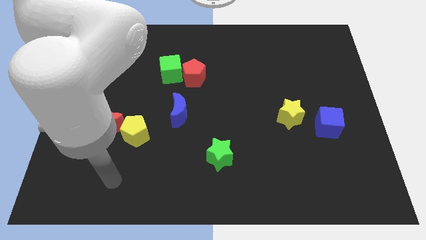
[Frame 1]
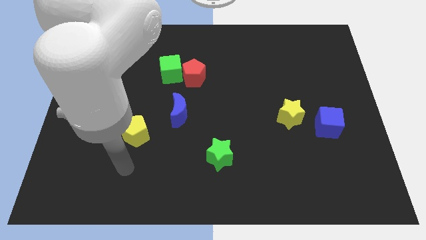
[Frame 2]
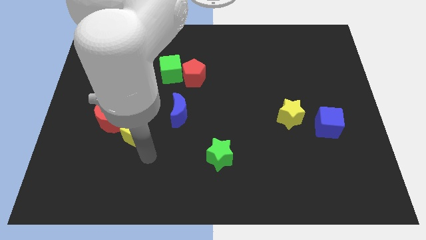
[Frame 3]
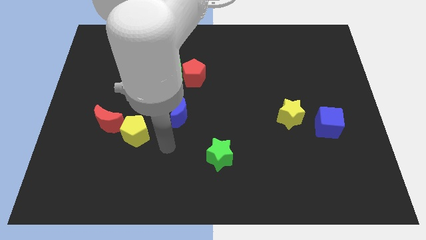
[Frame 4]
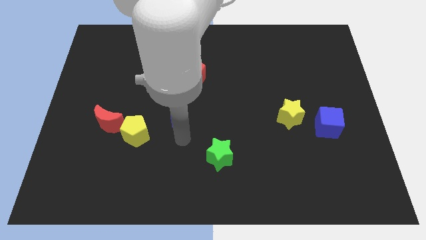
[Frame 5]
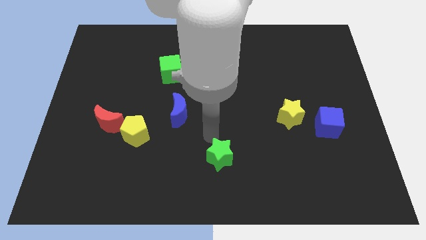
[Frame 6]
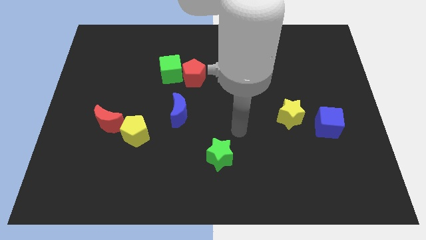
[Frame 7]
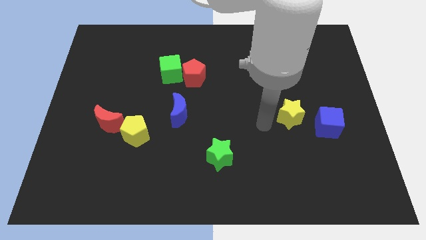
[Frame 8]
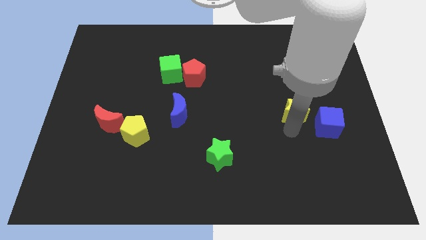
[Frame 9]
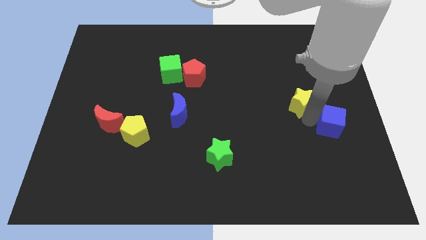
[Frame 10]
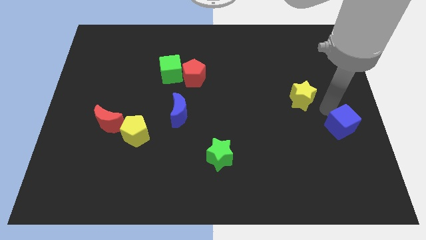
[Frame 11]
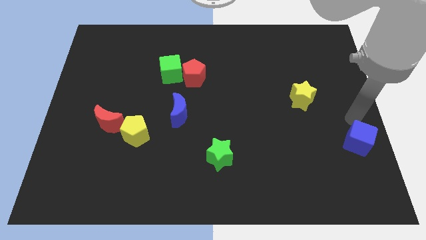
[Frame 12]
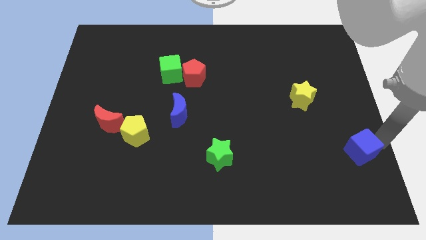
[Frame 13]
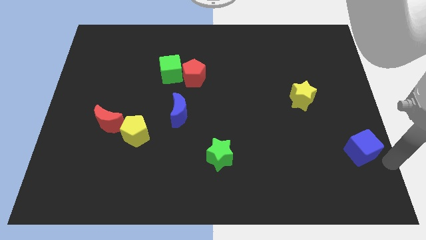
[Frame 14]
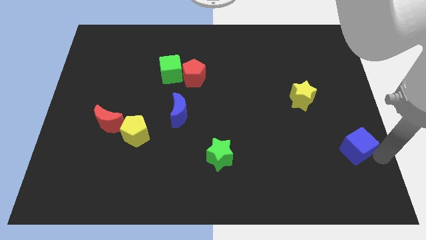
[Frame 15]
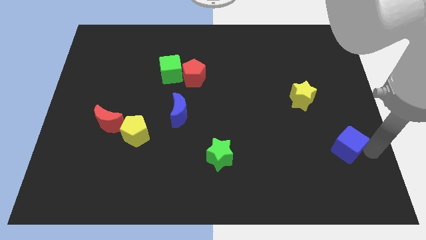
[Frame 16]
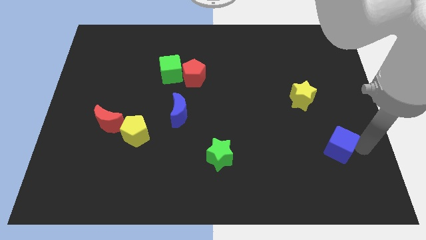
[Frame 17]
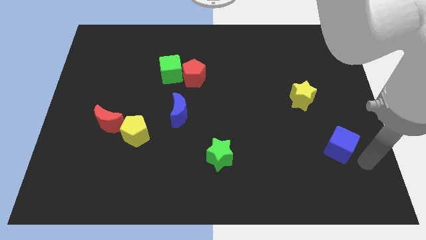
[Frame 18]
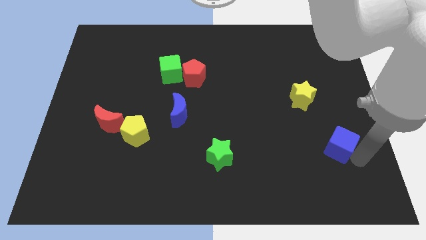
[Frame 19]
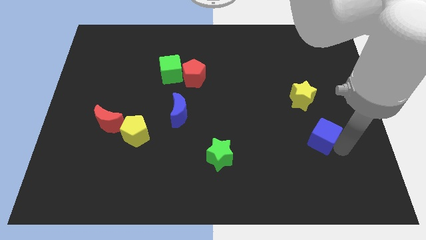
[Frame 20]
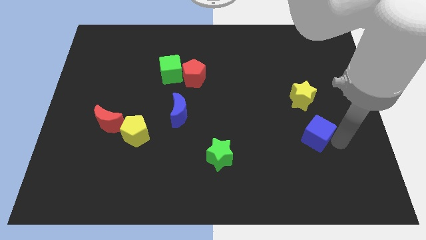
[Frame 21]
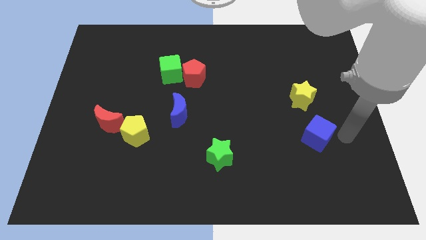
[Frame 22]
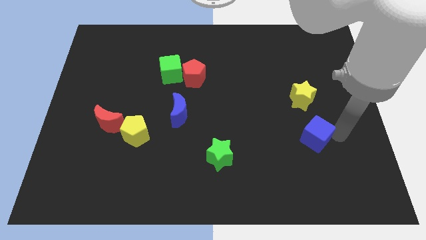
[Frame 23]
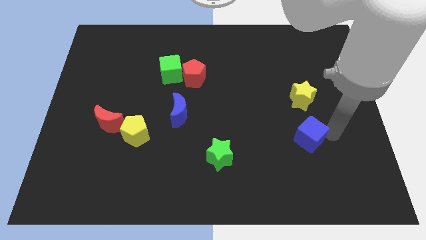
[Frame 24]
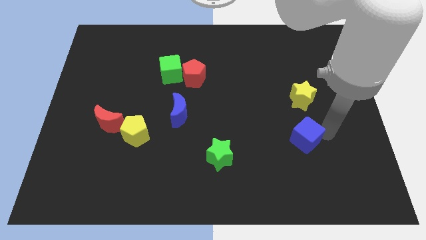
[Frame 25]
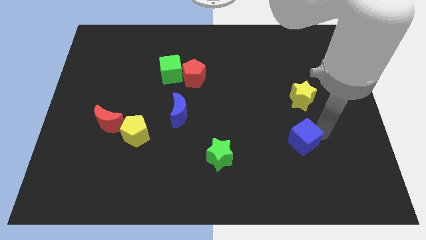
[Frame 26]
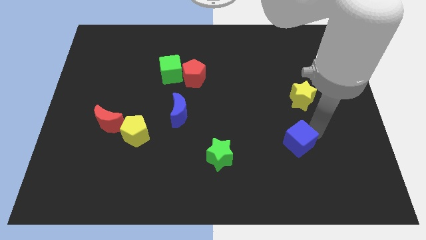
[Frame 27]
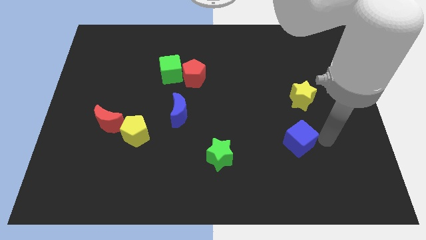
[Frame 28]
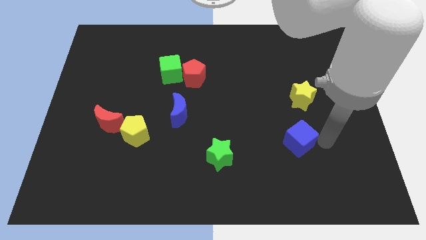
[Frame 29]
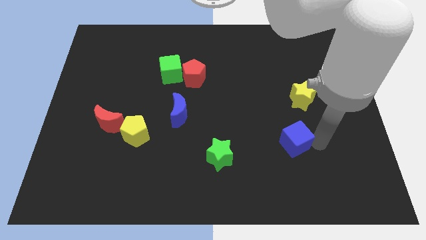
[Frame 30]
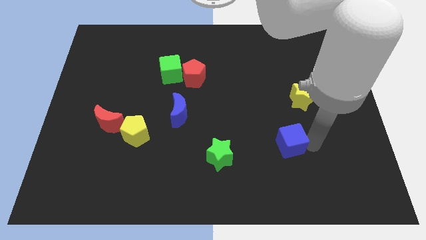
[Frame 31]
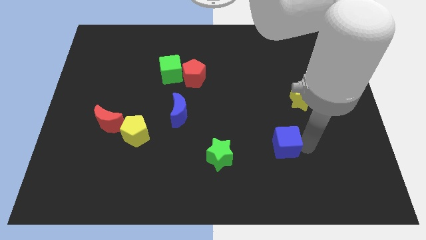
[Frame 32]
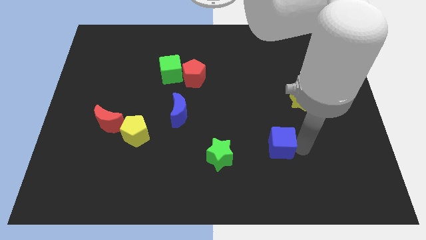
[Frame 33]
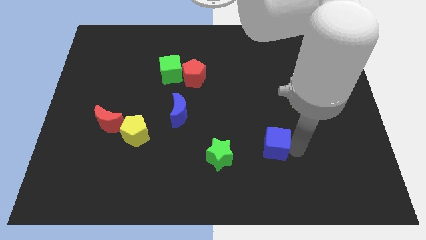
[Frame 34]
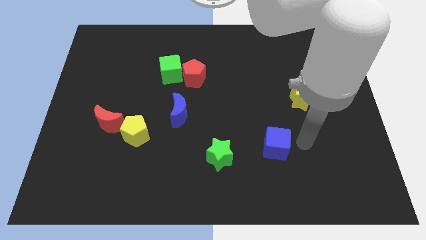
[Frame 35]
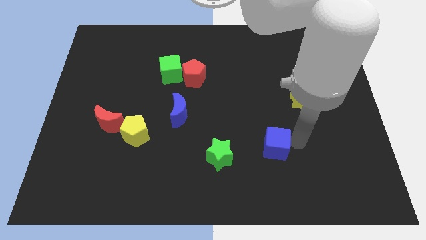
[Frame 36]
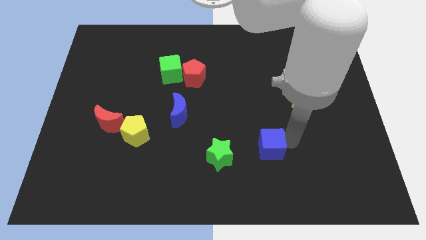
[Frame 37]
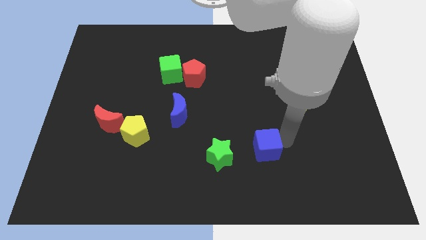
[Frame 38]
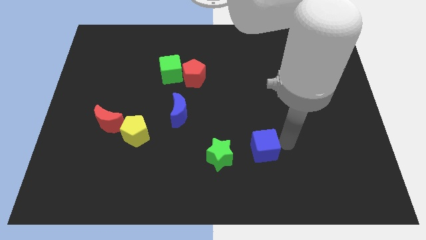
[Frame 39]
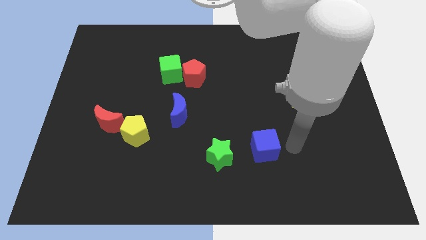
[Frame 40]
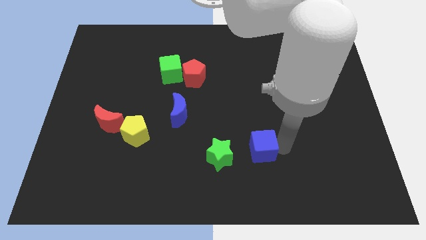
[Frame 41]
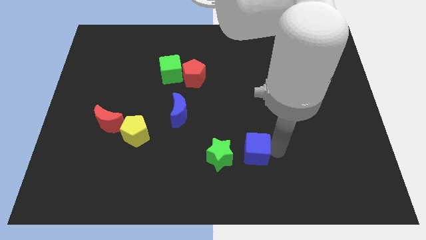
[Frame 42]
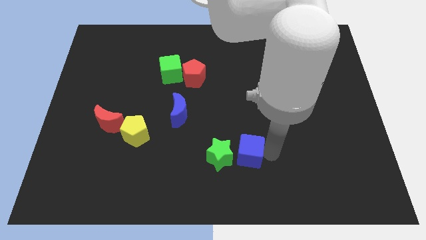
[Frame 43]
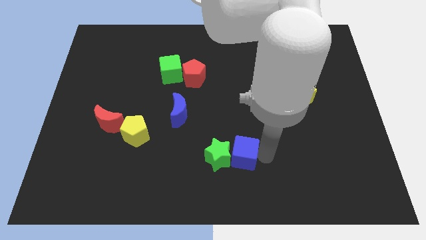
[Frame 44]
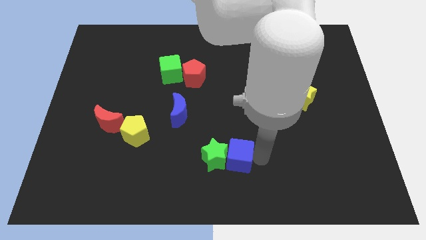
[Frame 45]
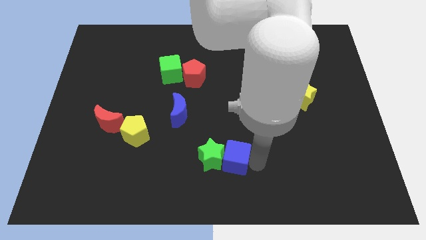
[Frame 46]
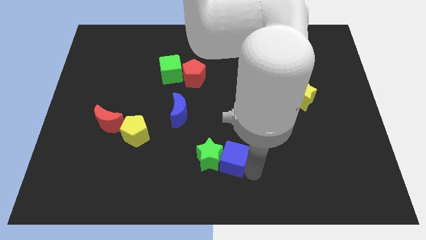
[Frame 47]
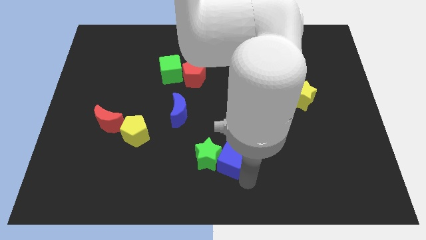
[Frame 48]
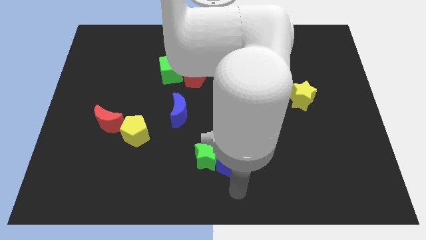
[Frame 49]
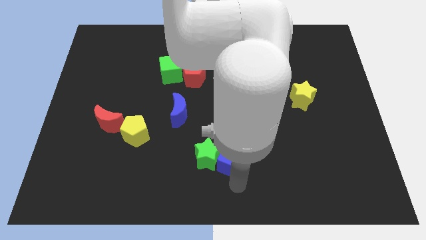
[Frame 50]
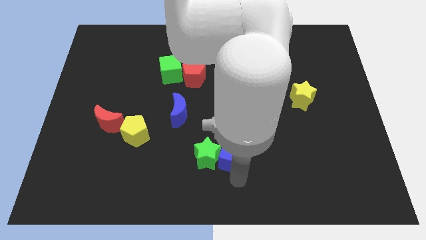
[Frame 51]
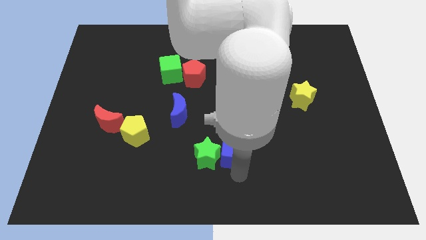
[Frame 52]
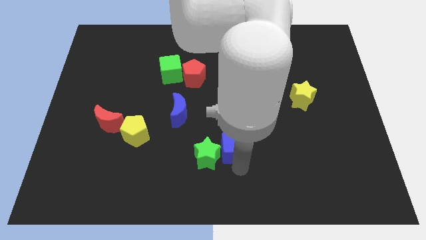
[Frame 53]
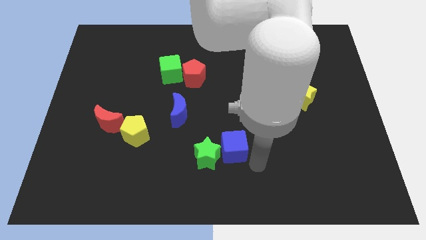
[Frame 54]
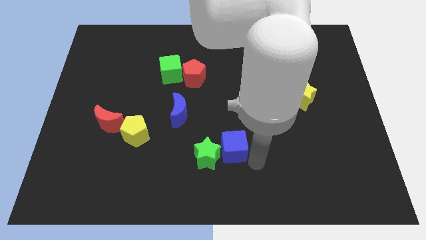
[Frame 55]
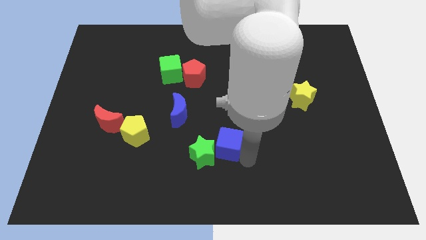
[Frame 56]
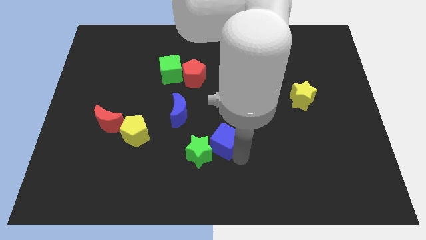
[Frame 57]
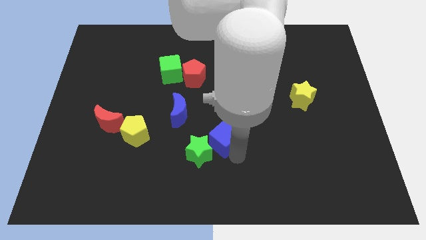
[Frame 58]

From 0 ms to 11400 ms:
move the blue cube to the bottom right of the blue moon

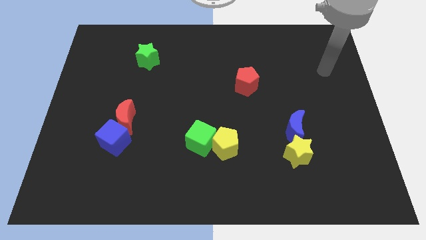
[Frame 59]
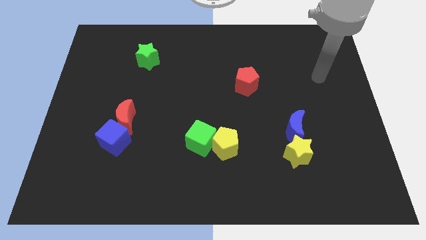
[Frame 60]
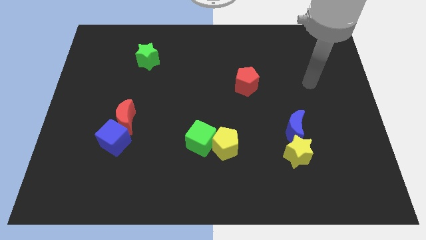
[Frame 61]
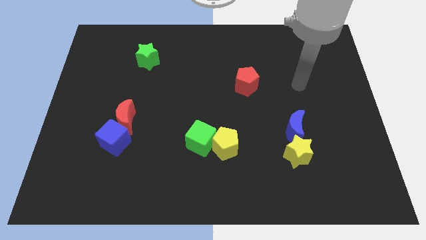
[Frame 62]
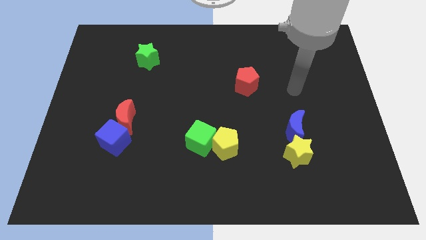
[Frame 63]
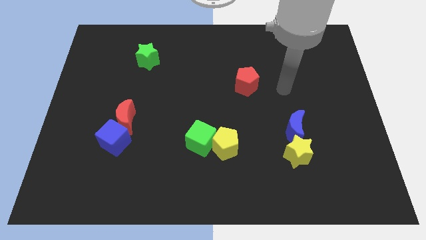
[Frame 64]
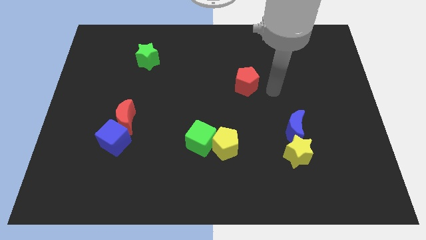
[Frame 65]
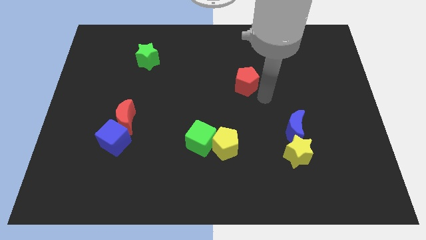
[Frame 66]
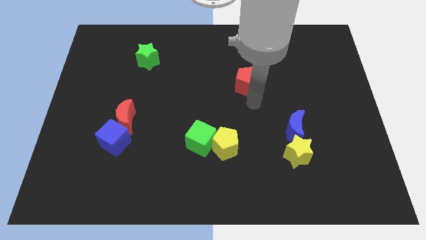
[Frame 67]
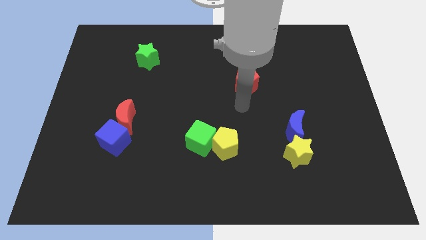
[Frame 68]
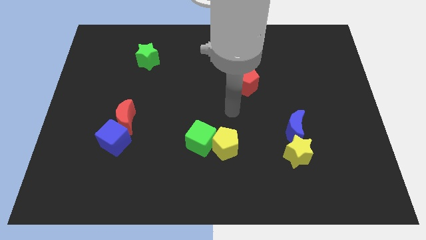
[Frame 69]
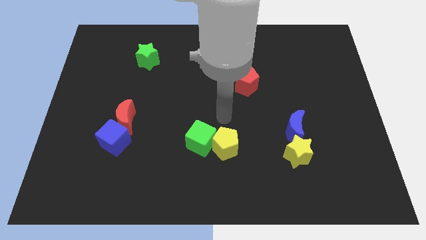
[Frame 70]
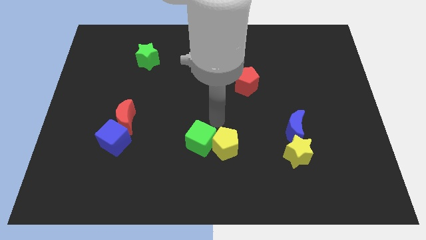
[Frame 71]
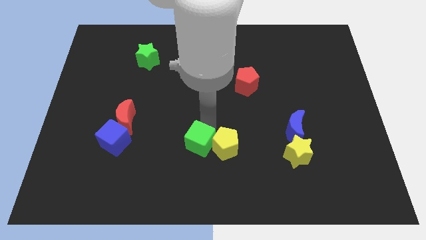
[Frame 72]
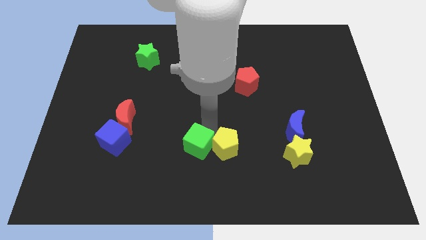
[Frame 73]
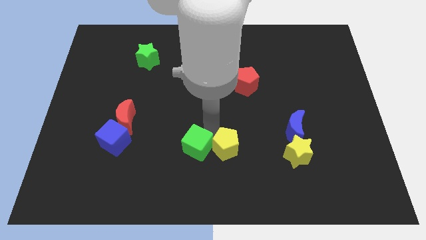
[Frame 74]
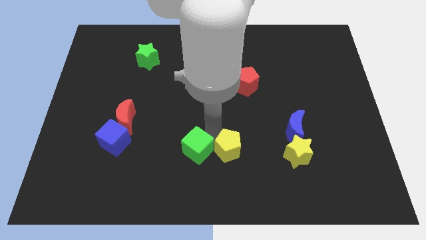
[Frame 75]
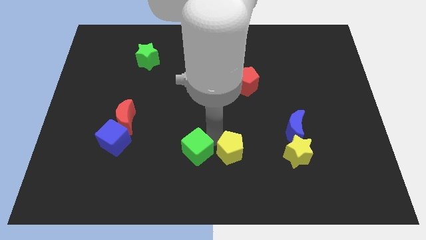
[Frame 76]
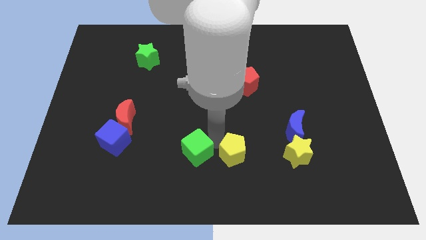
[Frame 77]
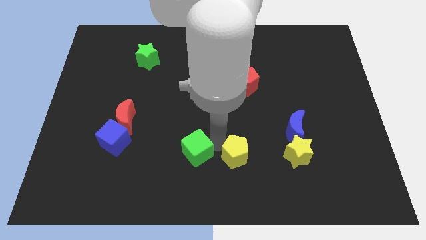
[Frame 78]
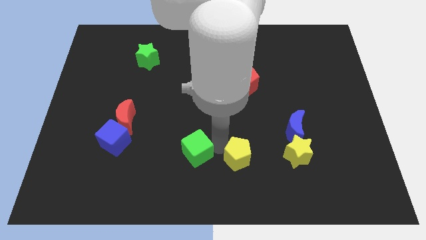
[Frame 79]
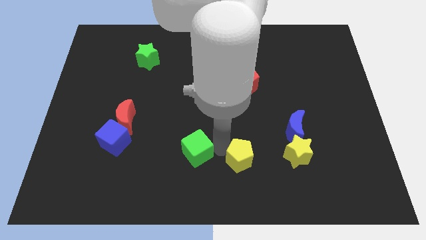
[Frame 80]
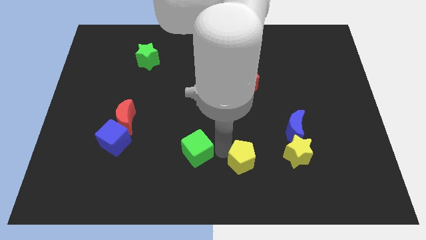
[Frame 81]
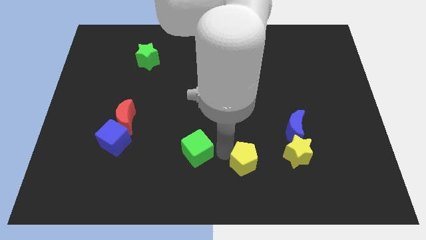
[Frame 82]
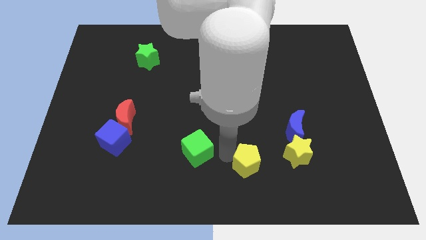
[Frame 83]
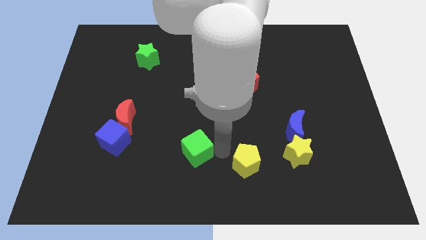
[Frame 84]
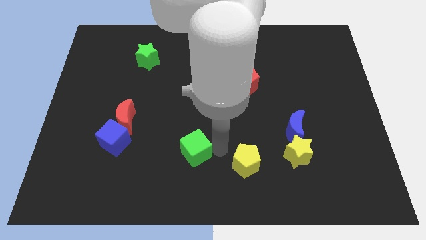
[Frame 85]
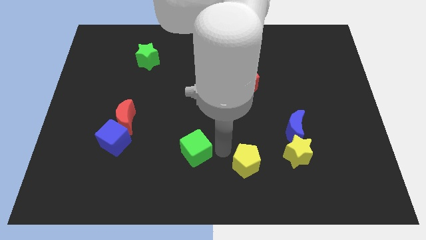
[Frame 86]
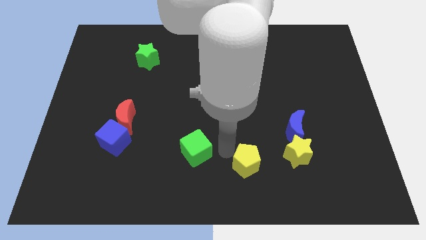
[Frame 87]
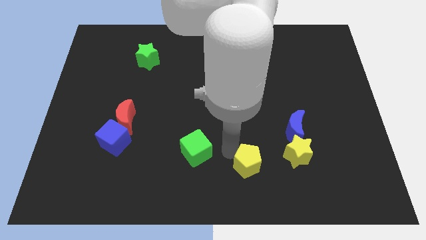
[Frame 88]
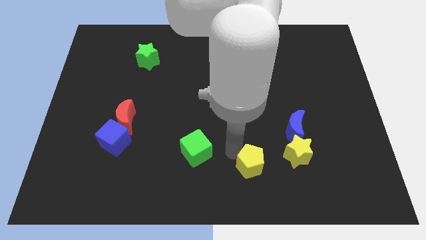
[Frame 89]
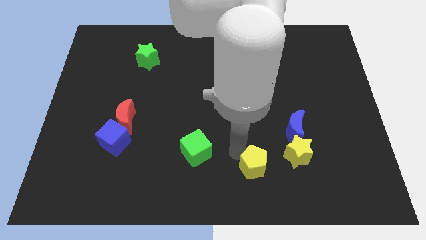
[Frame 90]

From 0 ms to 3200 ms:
slide the yellow pentagon to the bottom left of the yellow star
